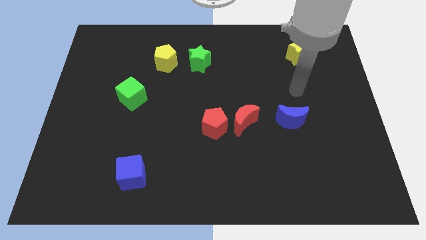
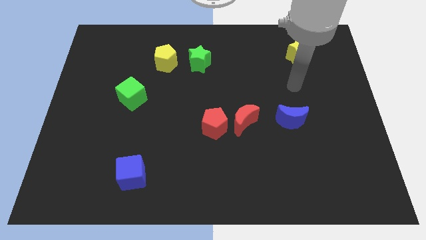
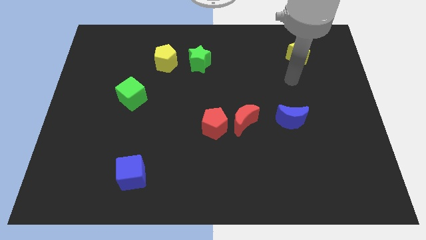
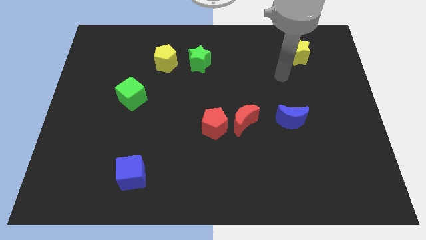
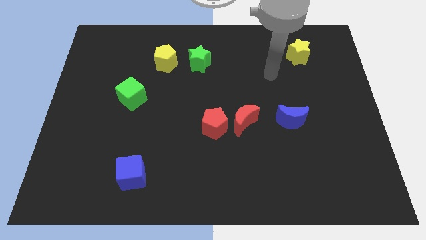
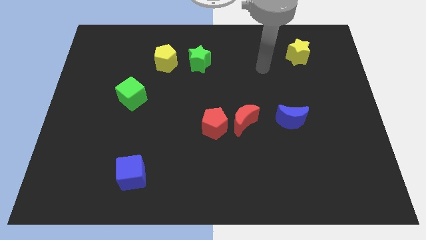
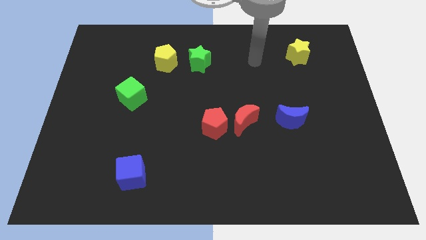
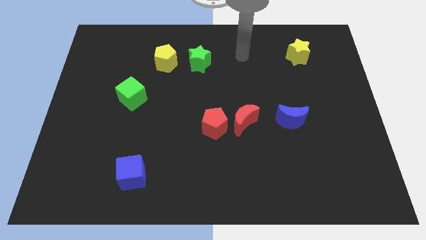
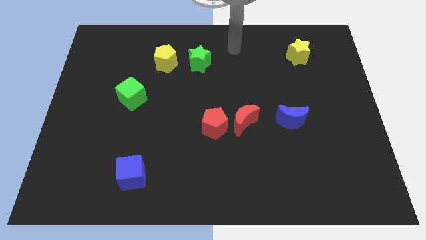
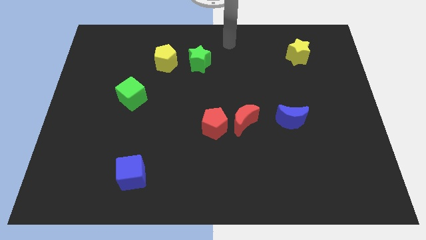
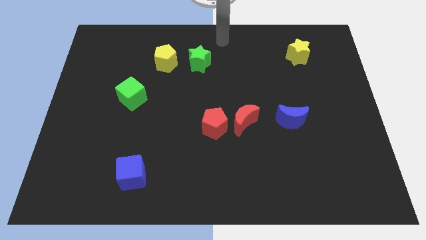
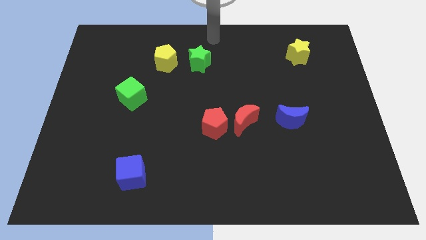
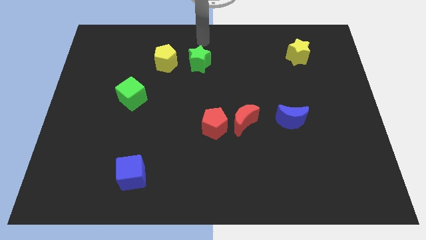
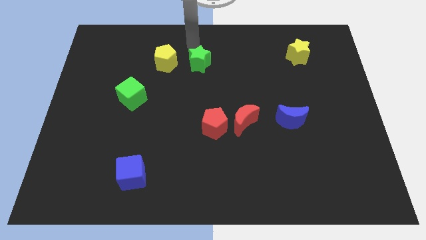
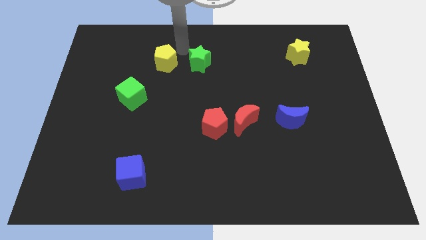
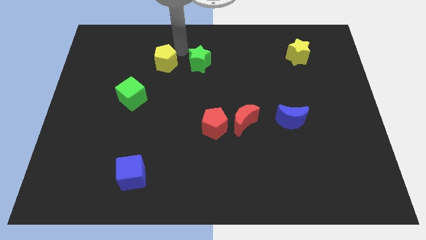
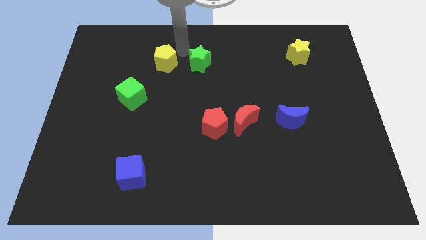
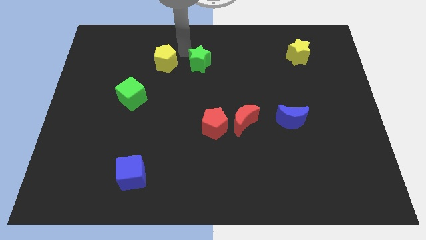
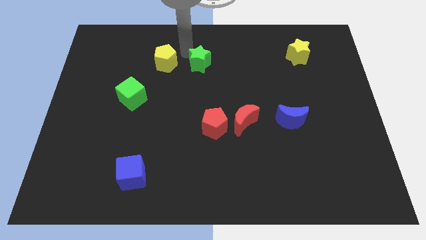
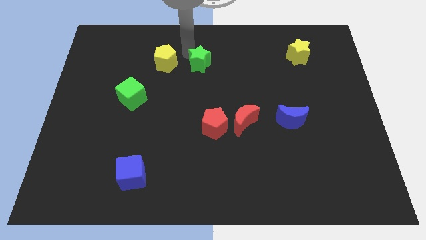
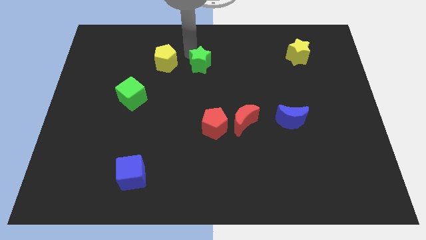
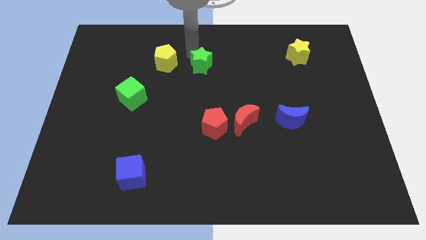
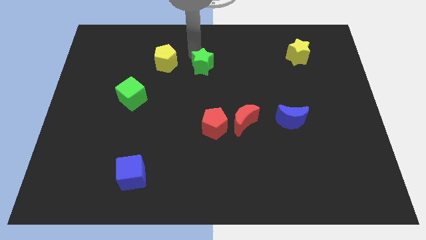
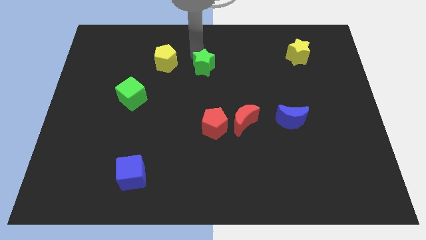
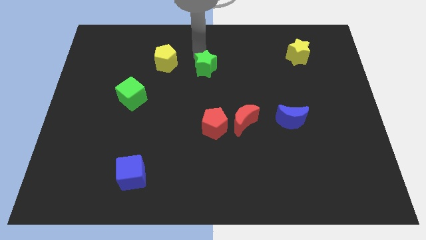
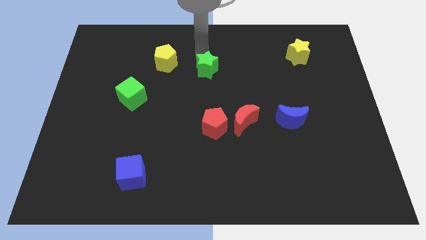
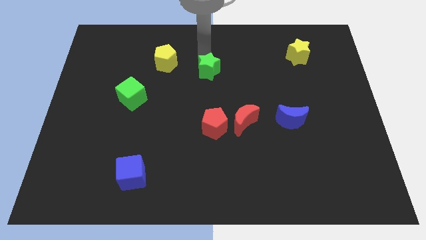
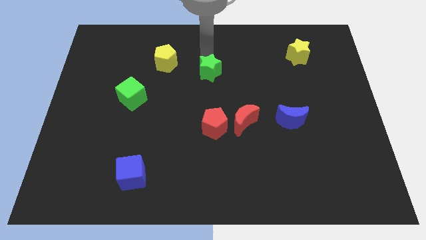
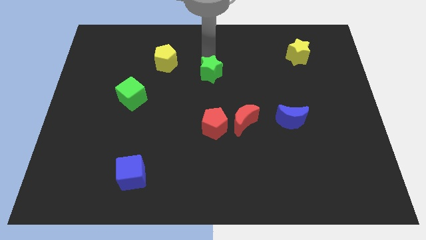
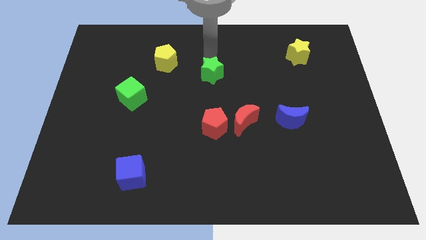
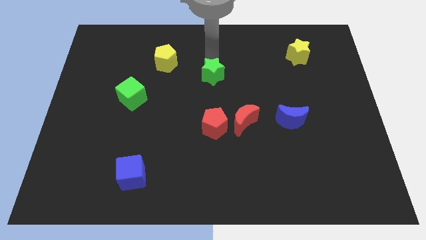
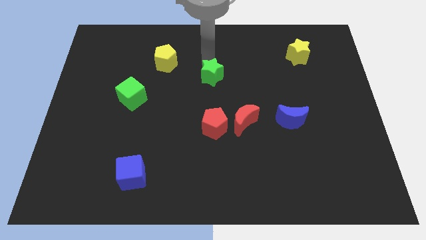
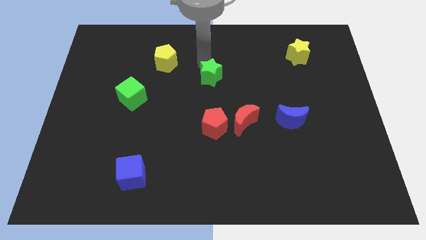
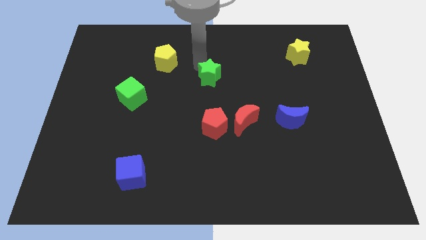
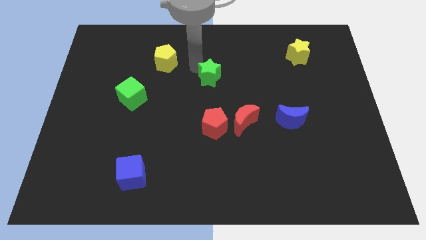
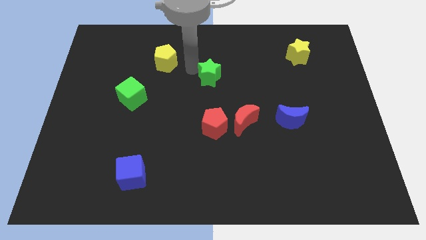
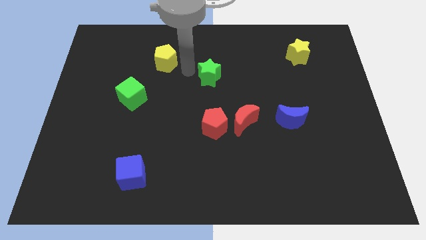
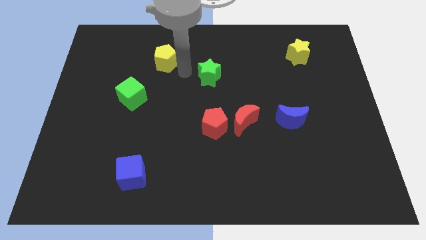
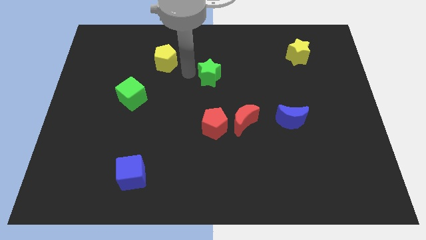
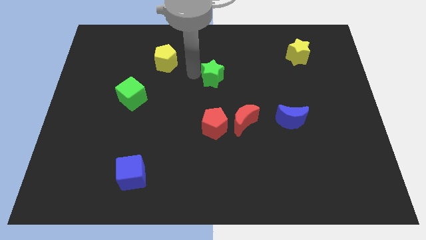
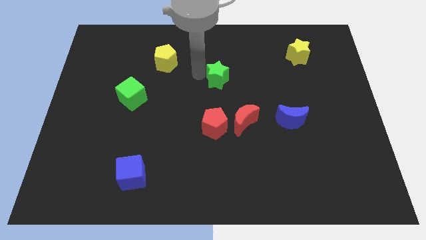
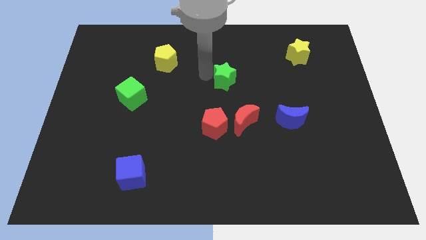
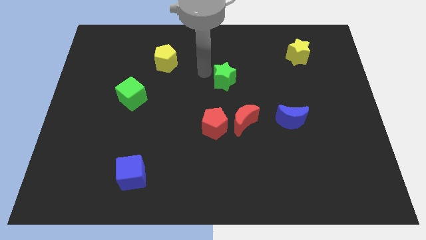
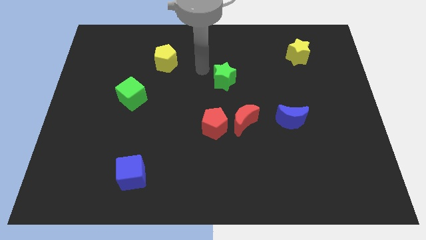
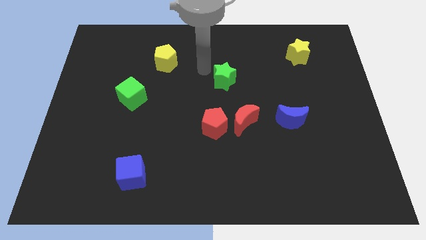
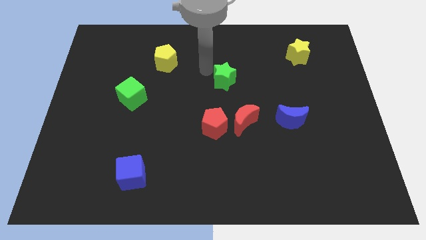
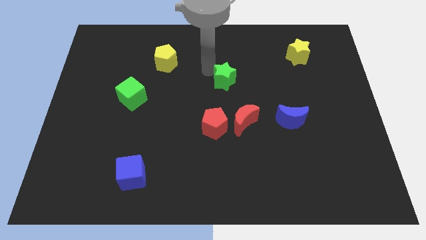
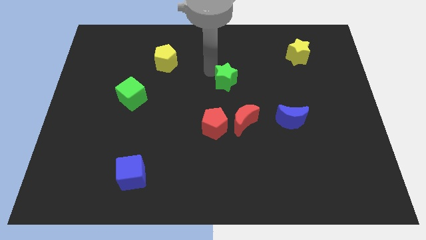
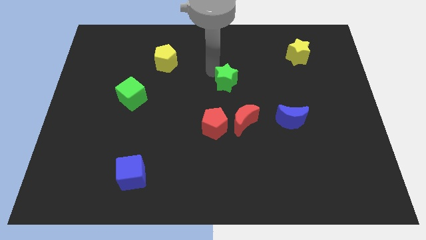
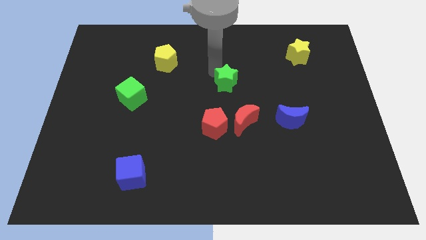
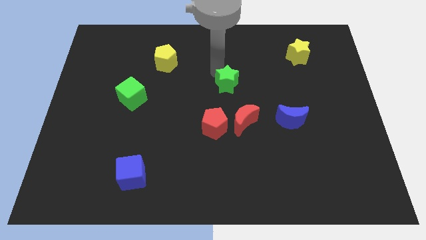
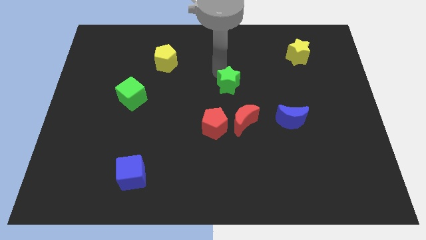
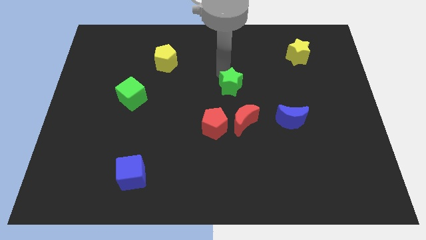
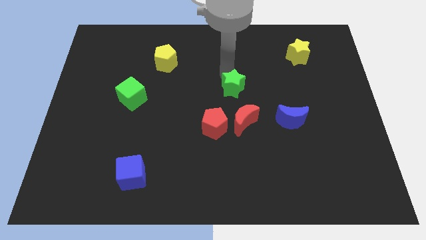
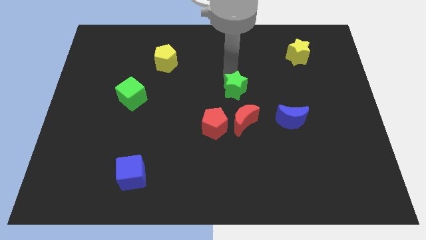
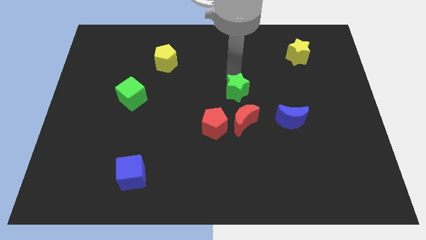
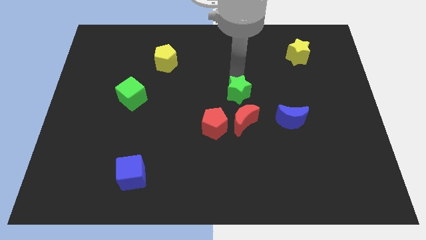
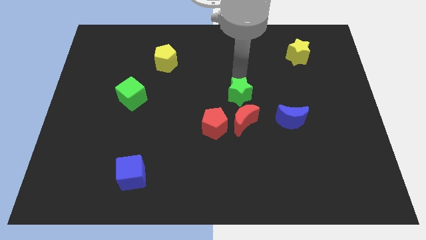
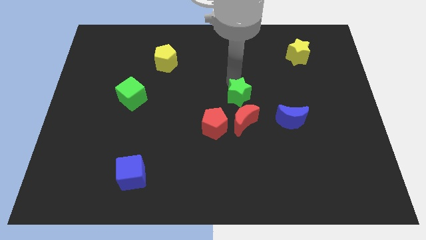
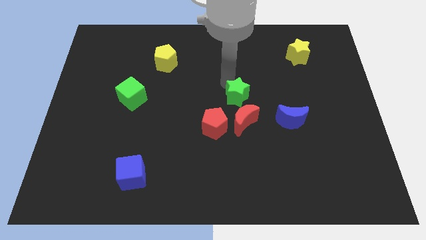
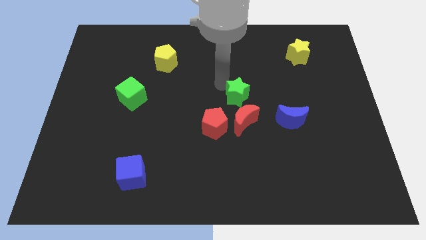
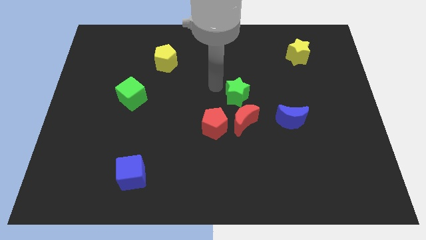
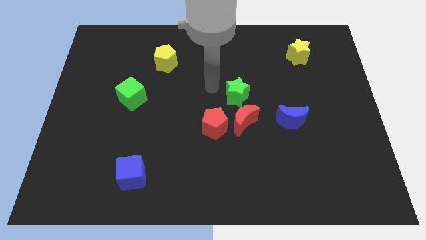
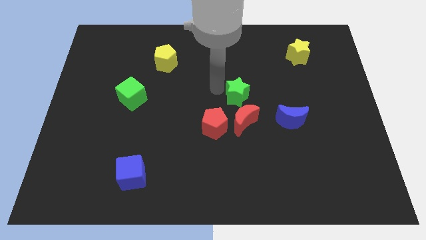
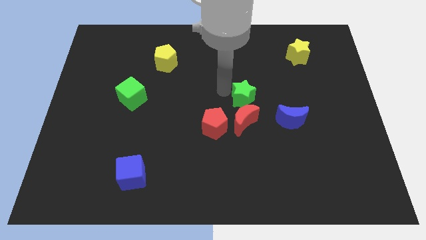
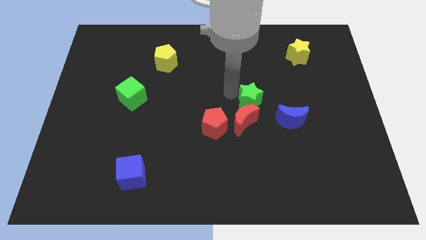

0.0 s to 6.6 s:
put the green star to the top left side of the blue moon
